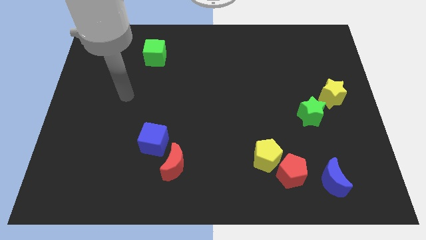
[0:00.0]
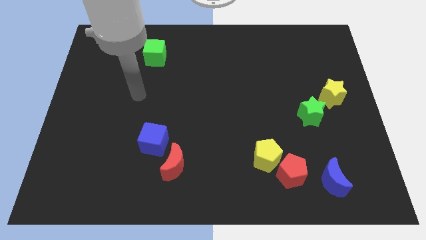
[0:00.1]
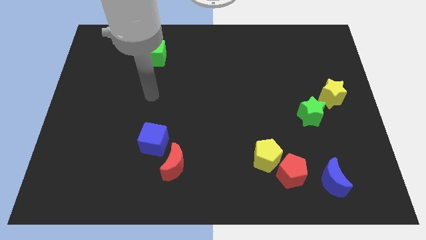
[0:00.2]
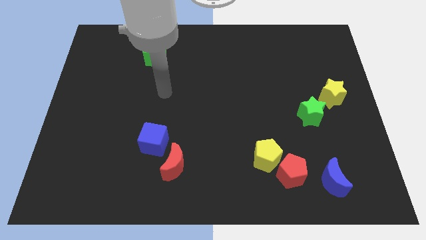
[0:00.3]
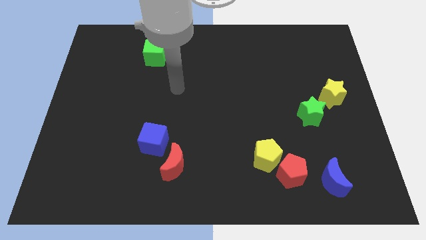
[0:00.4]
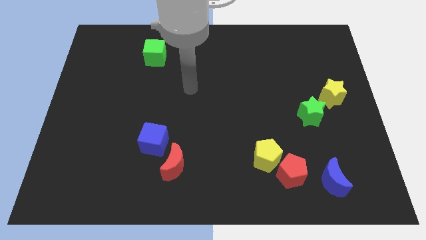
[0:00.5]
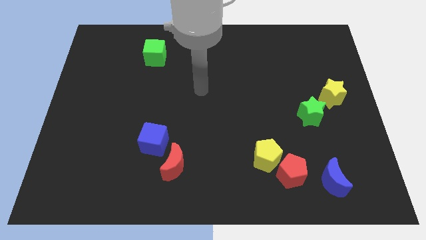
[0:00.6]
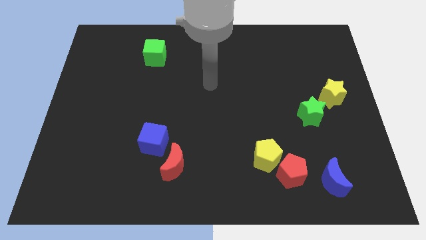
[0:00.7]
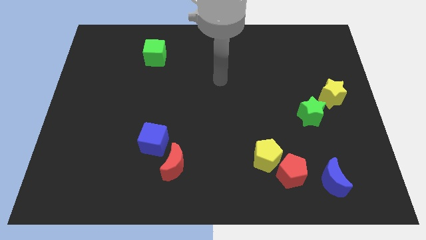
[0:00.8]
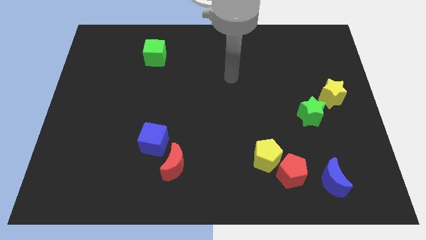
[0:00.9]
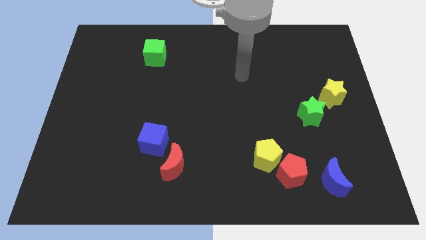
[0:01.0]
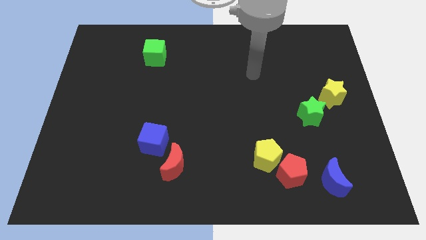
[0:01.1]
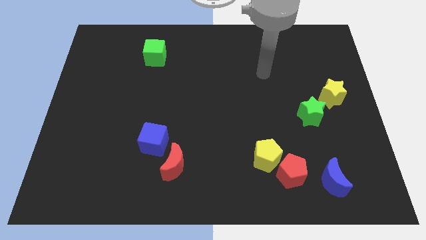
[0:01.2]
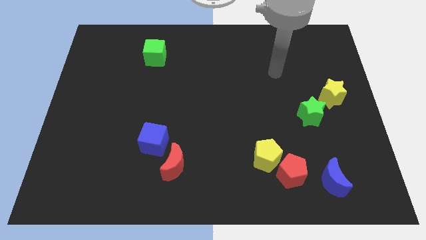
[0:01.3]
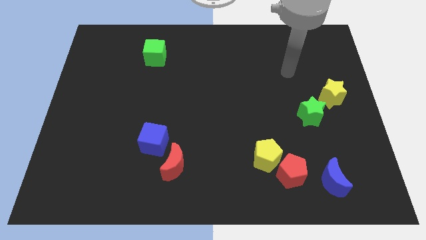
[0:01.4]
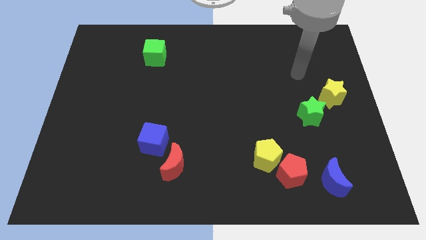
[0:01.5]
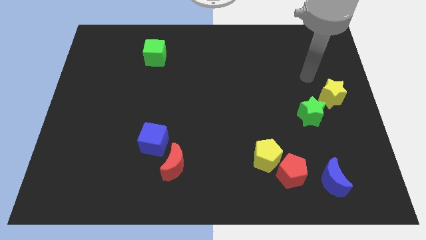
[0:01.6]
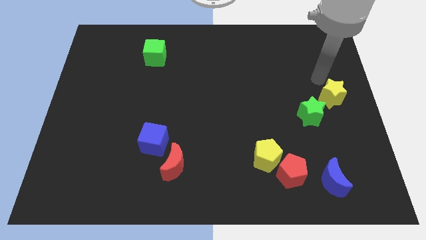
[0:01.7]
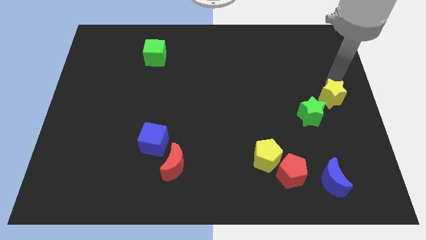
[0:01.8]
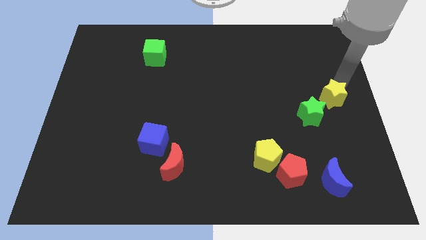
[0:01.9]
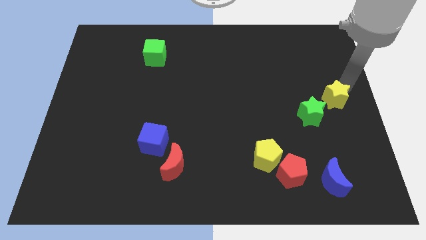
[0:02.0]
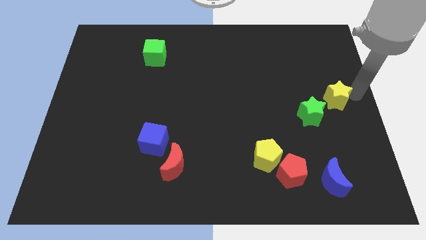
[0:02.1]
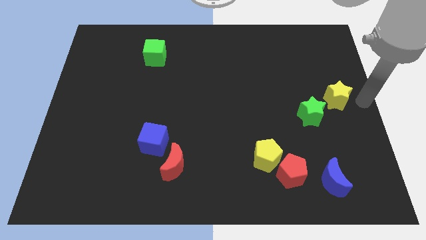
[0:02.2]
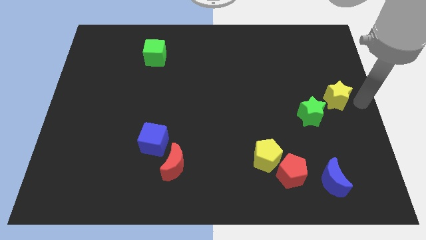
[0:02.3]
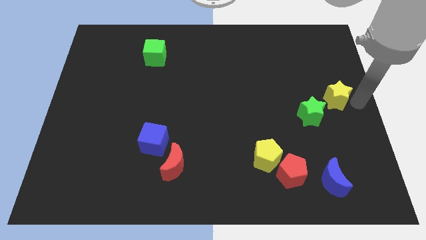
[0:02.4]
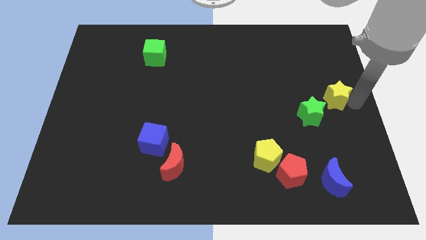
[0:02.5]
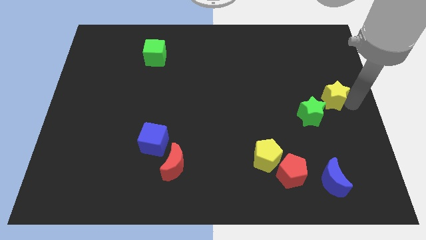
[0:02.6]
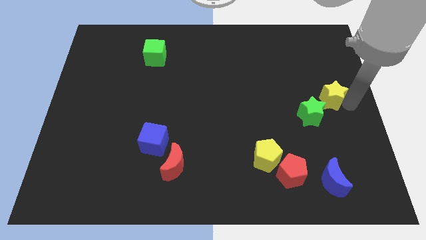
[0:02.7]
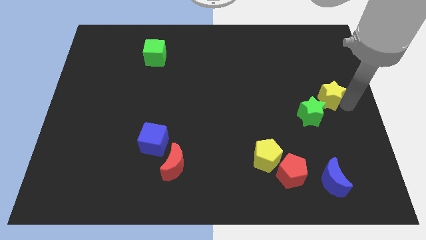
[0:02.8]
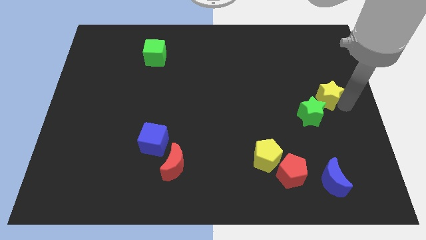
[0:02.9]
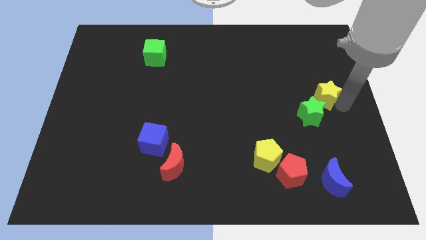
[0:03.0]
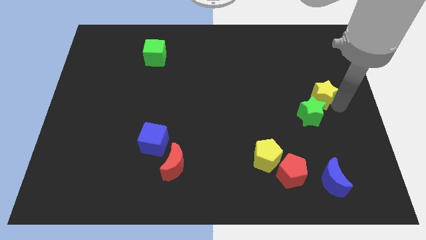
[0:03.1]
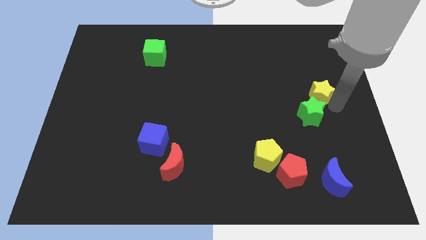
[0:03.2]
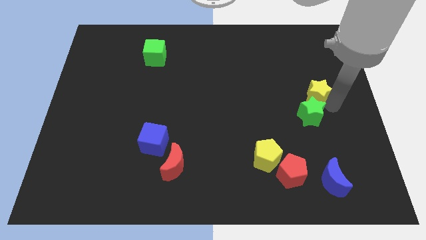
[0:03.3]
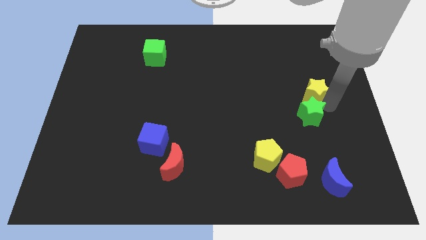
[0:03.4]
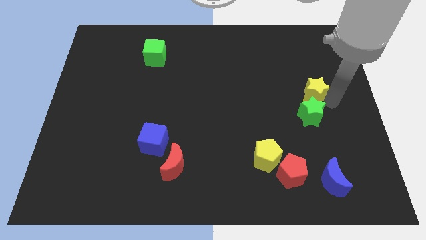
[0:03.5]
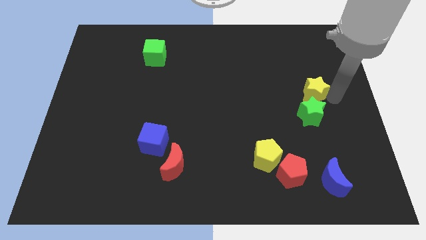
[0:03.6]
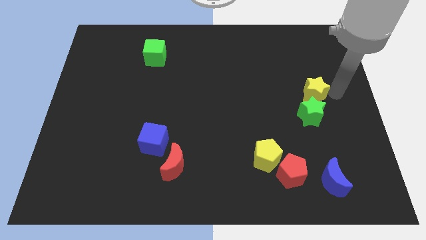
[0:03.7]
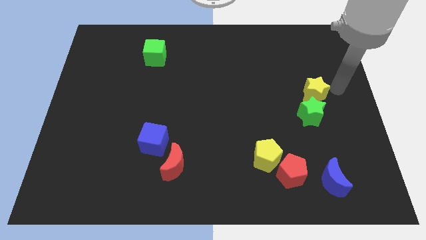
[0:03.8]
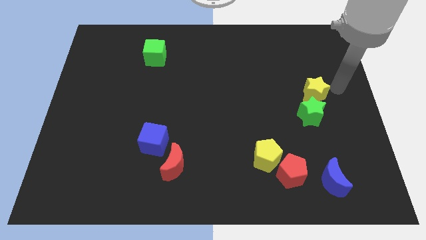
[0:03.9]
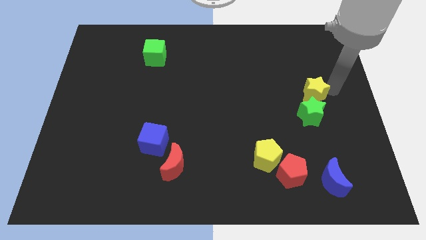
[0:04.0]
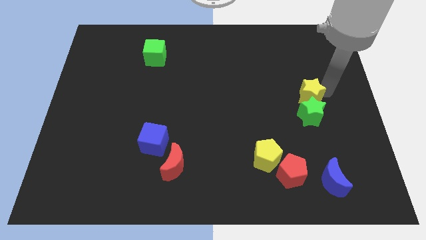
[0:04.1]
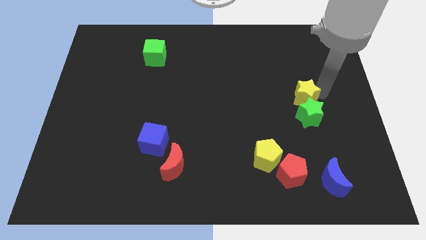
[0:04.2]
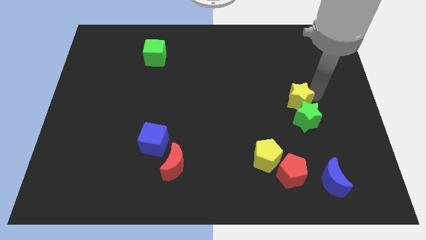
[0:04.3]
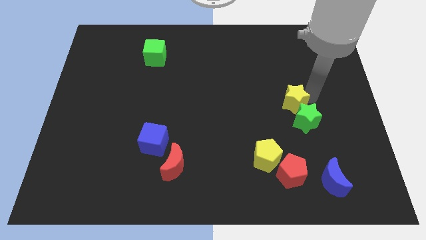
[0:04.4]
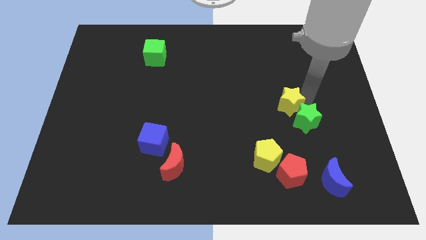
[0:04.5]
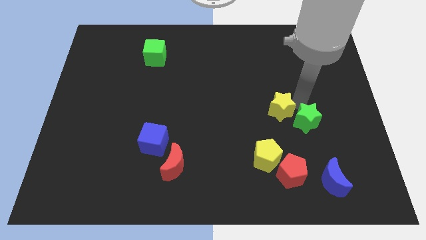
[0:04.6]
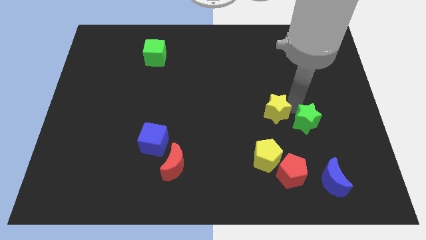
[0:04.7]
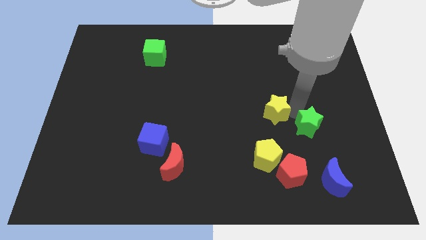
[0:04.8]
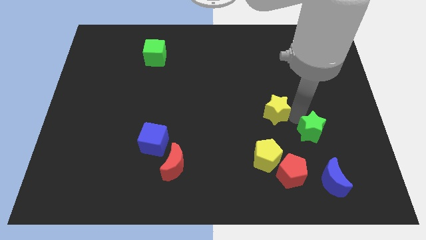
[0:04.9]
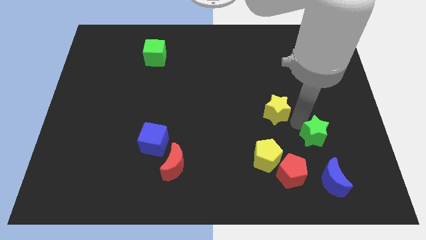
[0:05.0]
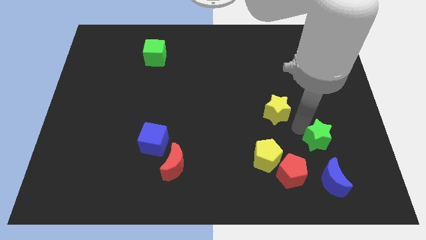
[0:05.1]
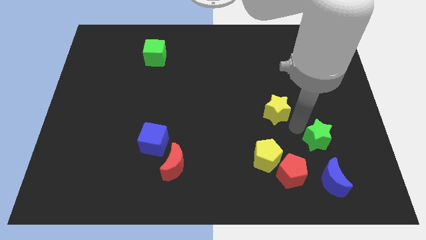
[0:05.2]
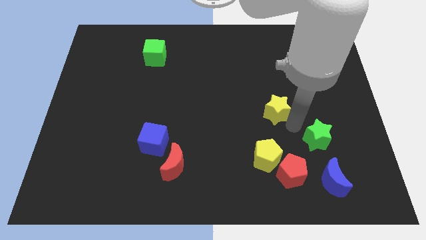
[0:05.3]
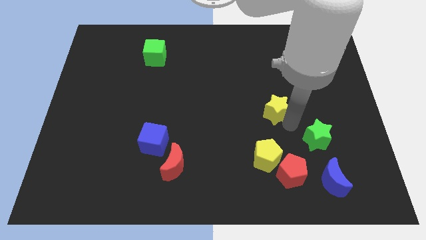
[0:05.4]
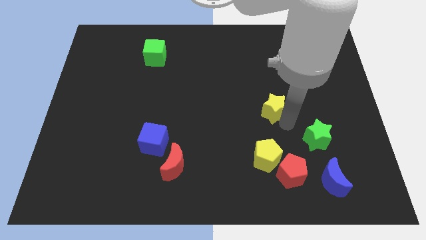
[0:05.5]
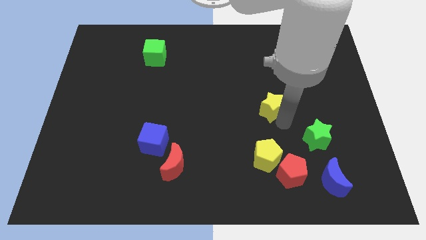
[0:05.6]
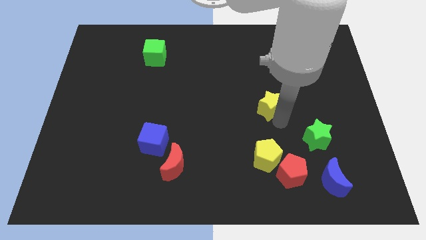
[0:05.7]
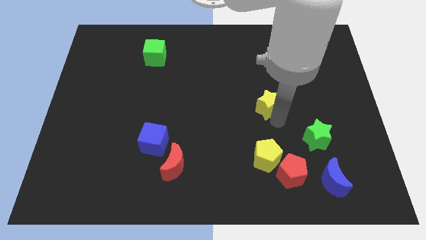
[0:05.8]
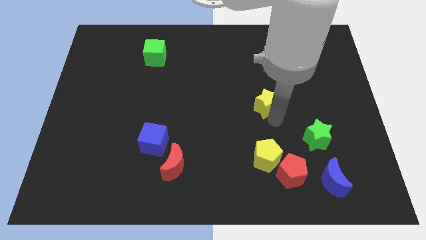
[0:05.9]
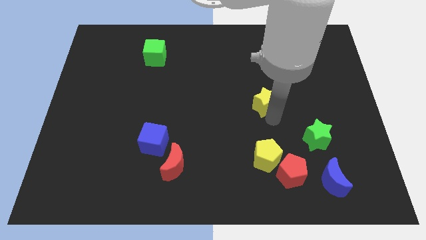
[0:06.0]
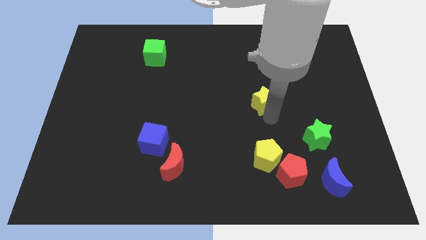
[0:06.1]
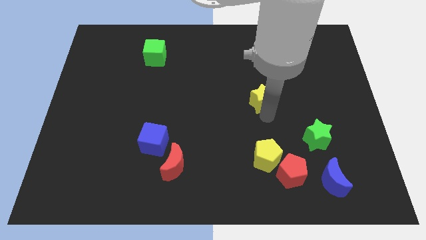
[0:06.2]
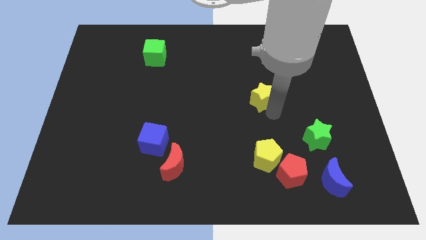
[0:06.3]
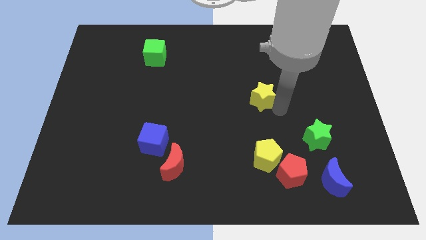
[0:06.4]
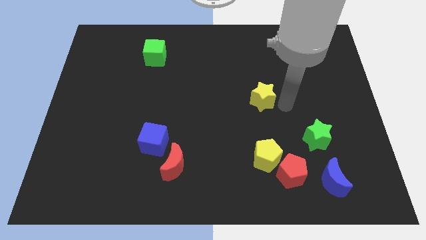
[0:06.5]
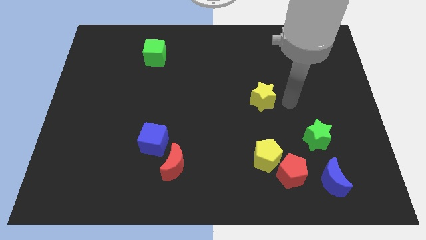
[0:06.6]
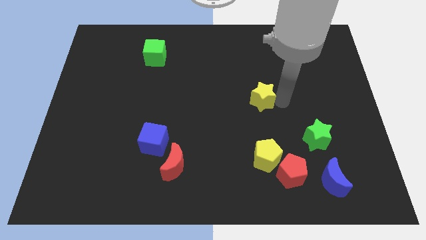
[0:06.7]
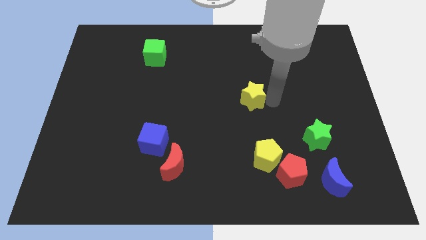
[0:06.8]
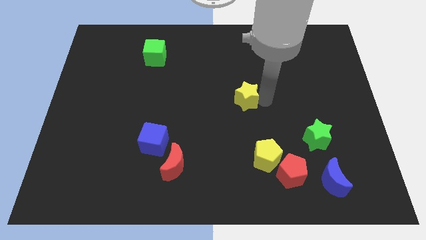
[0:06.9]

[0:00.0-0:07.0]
slide the yellow star to the left

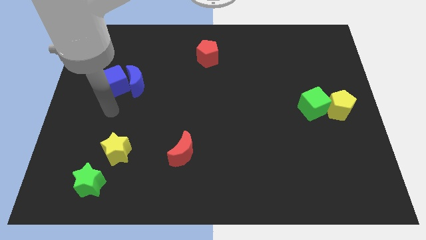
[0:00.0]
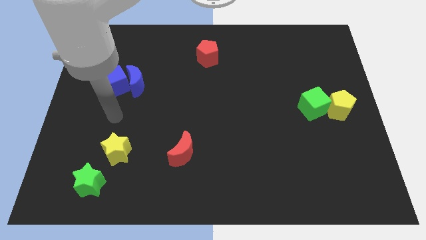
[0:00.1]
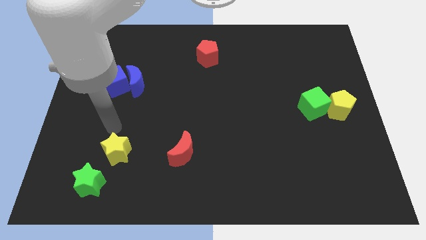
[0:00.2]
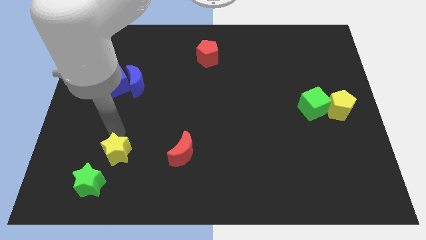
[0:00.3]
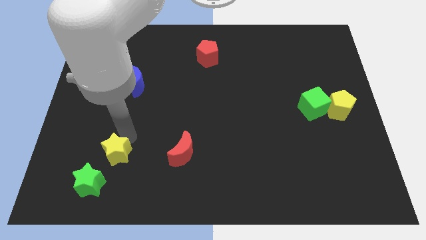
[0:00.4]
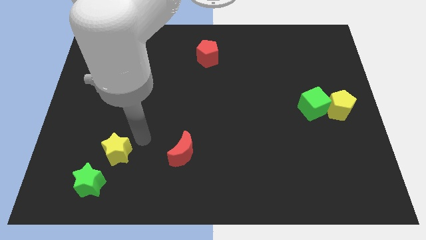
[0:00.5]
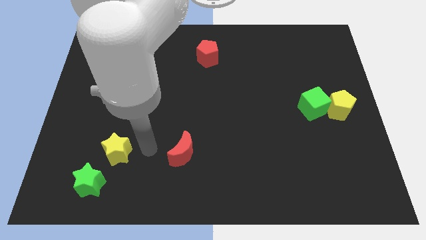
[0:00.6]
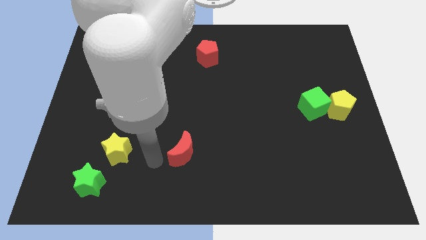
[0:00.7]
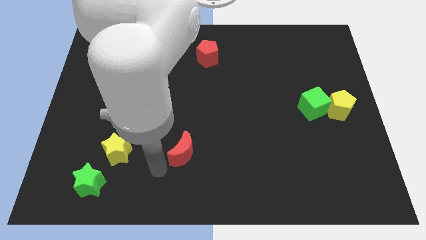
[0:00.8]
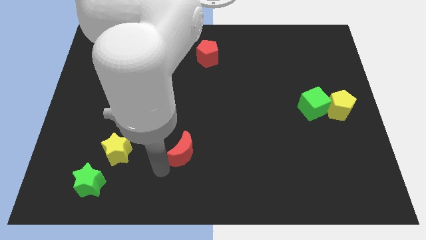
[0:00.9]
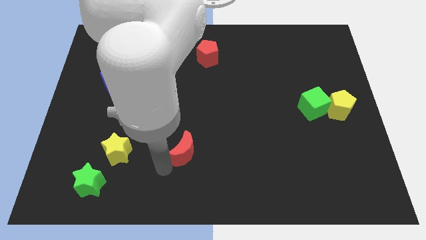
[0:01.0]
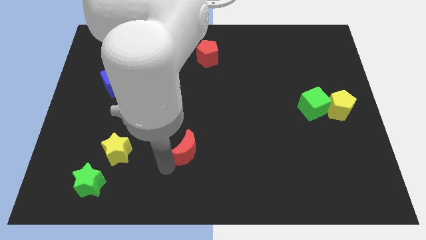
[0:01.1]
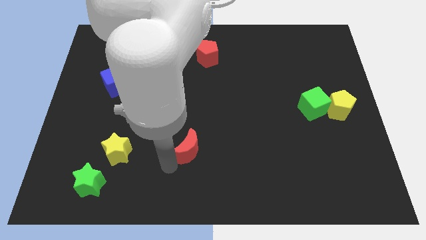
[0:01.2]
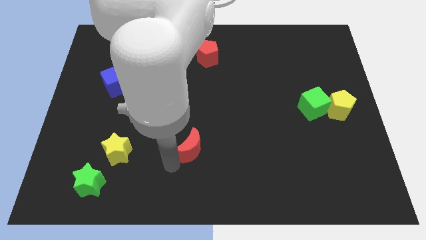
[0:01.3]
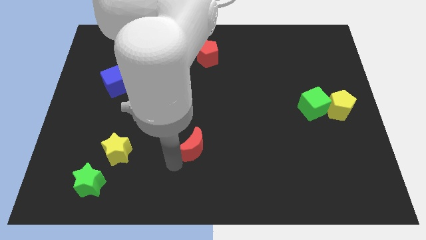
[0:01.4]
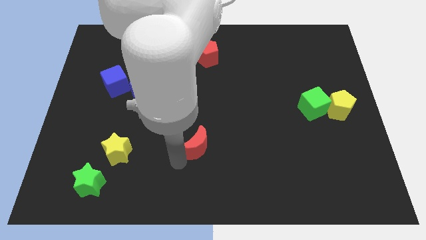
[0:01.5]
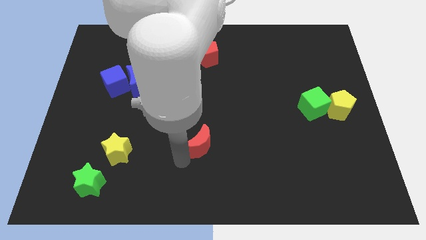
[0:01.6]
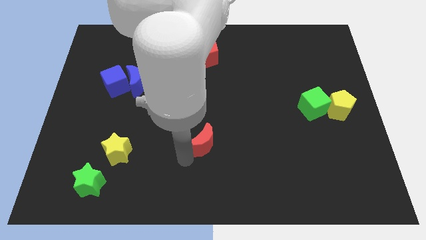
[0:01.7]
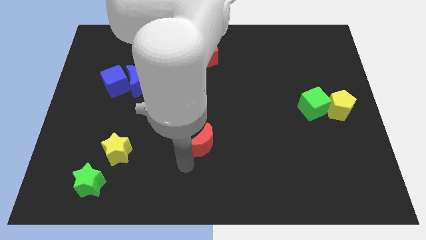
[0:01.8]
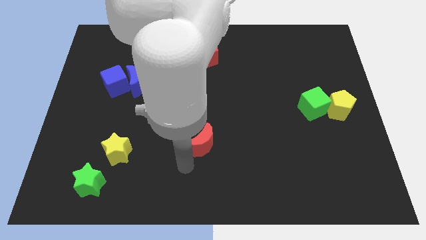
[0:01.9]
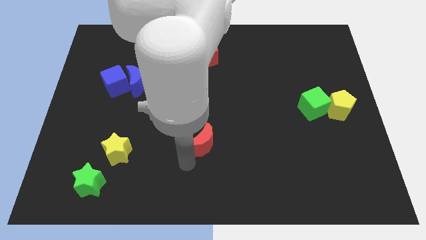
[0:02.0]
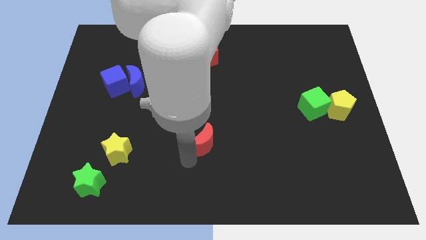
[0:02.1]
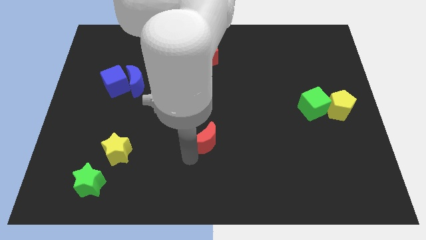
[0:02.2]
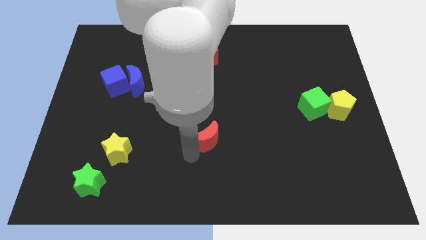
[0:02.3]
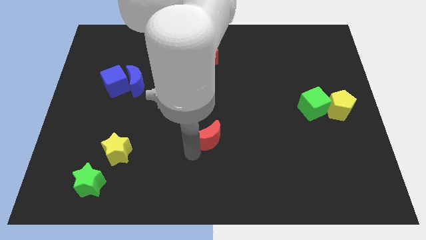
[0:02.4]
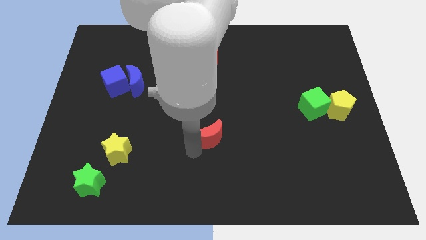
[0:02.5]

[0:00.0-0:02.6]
slide the red moon diagonally up and right a little bit
